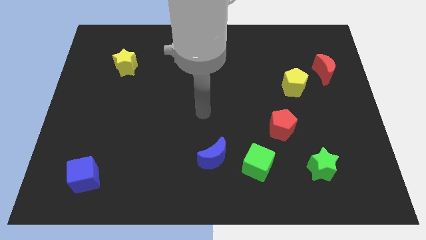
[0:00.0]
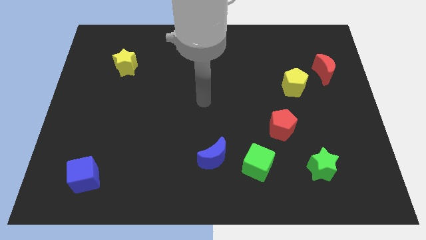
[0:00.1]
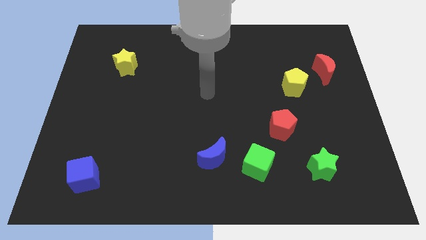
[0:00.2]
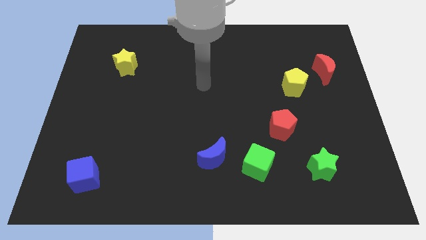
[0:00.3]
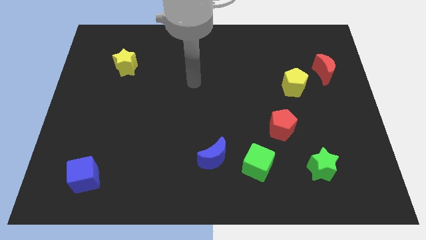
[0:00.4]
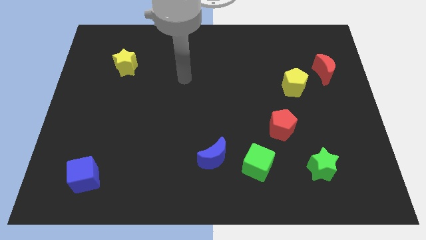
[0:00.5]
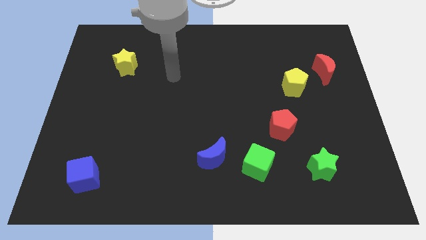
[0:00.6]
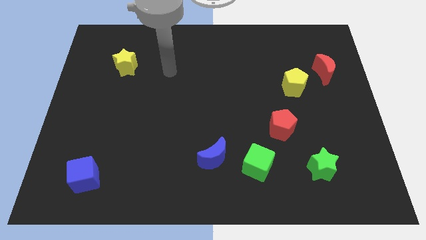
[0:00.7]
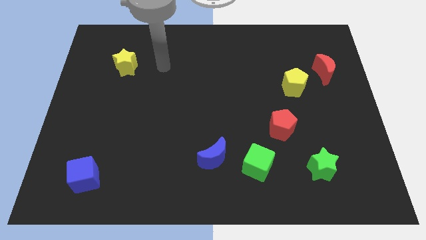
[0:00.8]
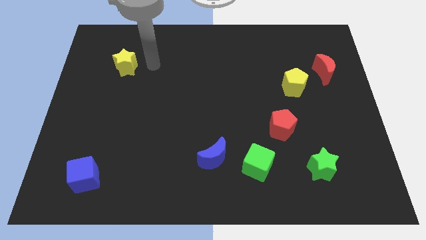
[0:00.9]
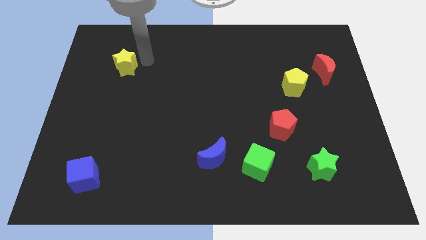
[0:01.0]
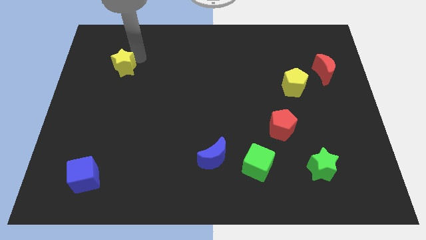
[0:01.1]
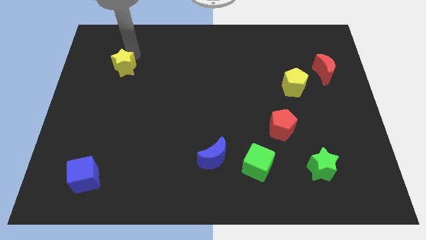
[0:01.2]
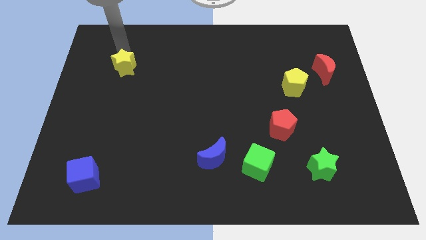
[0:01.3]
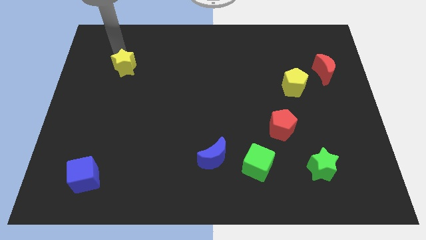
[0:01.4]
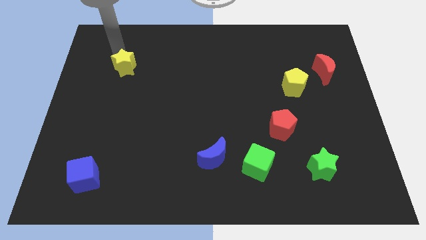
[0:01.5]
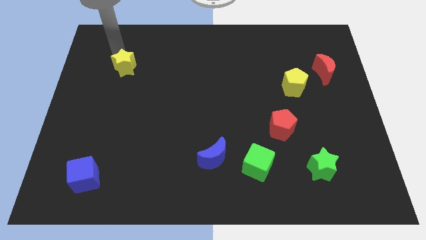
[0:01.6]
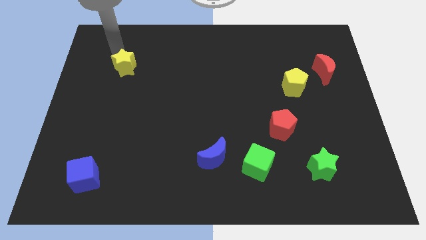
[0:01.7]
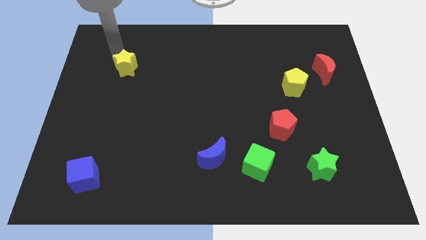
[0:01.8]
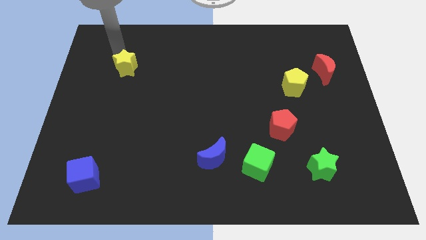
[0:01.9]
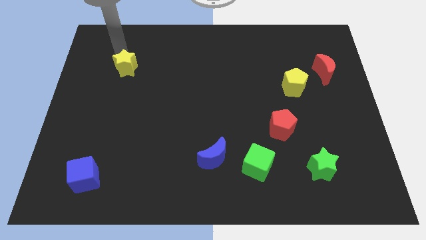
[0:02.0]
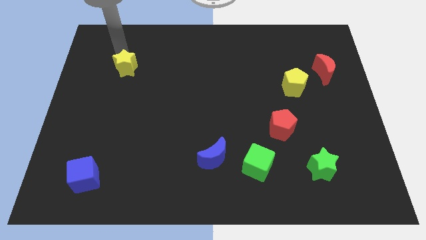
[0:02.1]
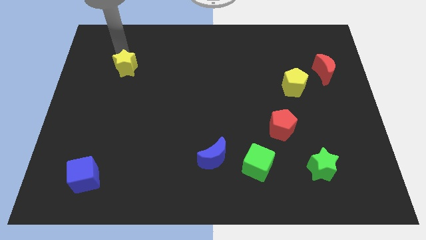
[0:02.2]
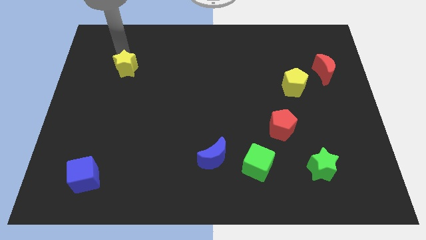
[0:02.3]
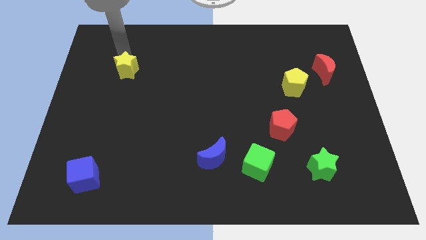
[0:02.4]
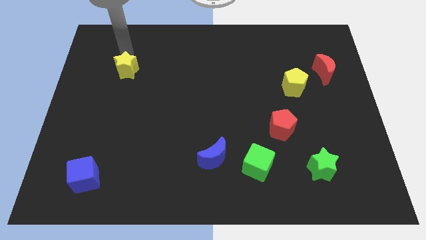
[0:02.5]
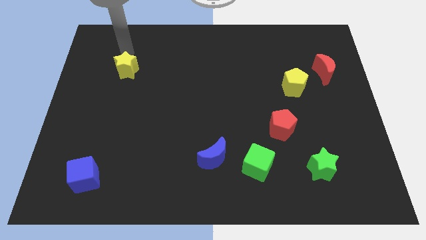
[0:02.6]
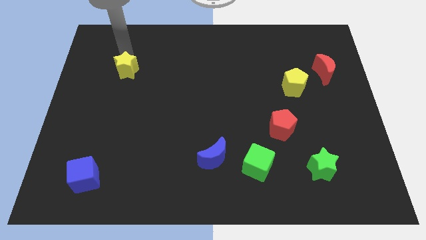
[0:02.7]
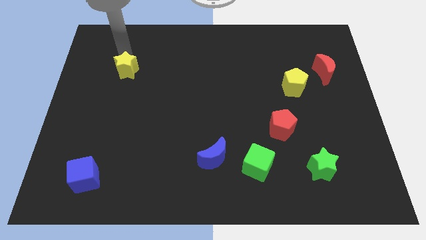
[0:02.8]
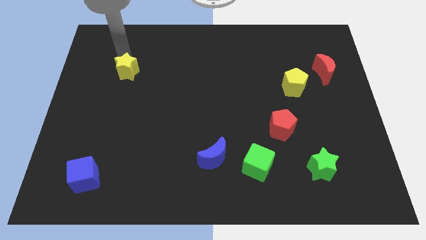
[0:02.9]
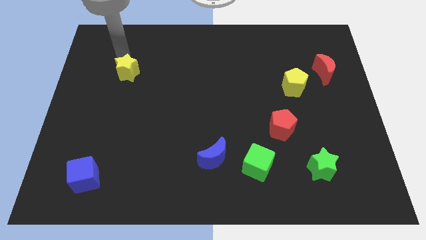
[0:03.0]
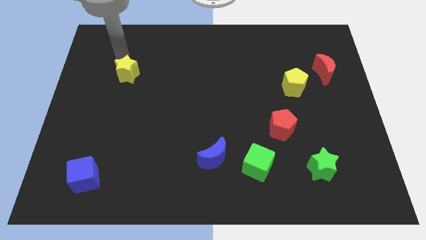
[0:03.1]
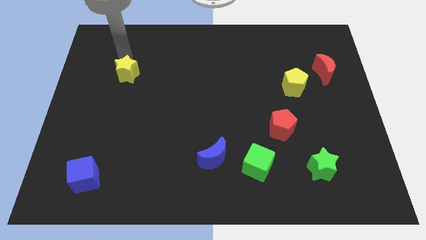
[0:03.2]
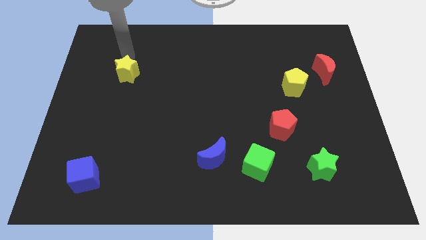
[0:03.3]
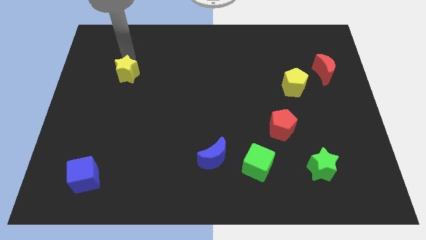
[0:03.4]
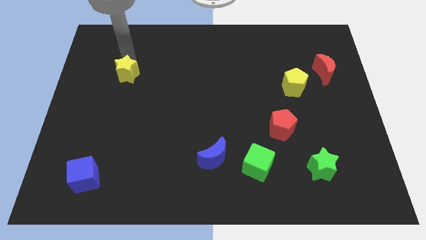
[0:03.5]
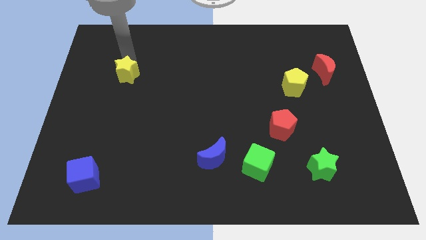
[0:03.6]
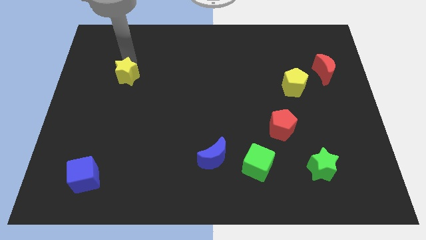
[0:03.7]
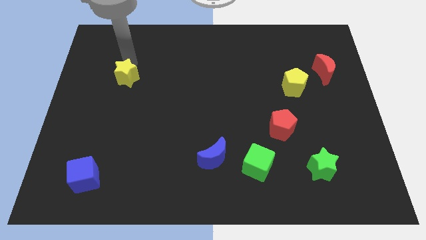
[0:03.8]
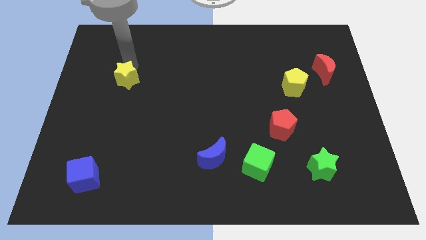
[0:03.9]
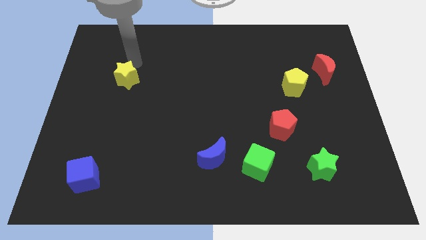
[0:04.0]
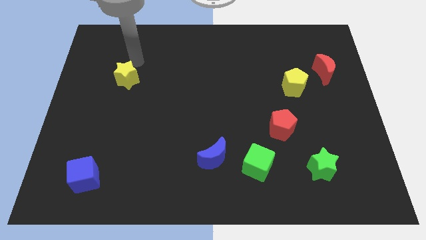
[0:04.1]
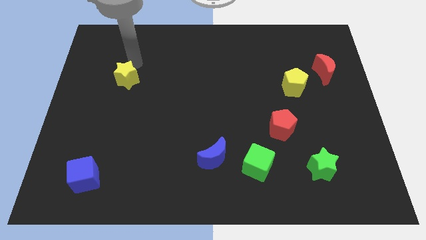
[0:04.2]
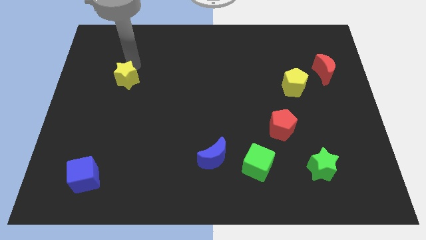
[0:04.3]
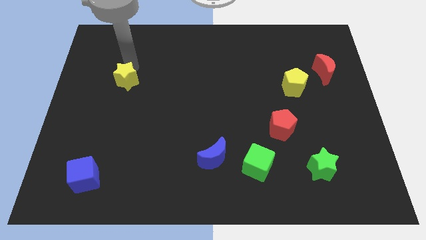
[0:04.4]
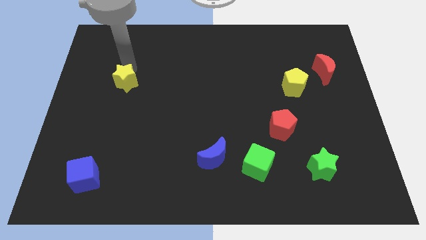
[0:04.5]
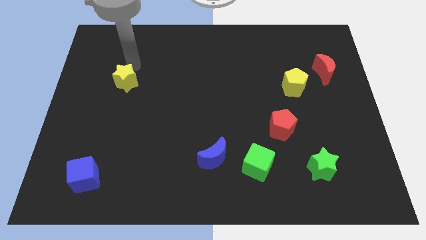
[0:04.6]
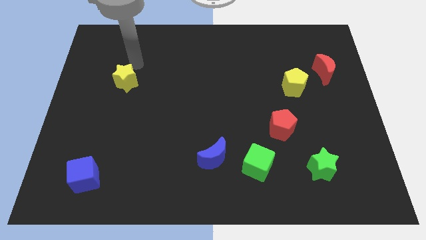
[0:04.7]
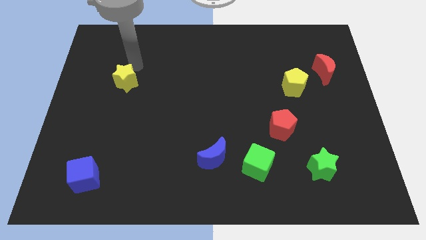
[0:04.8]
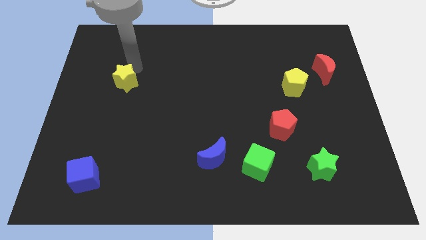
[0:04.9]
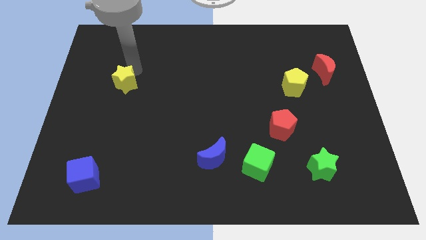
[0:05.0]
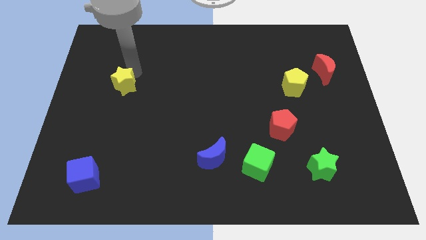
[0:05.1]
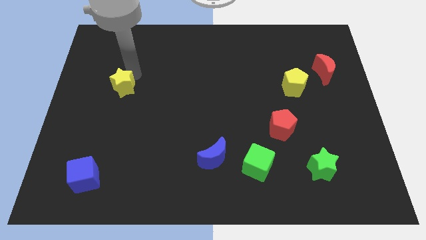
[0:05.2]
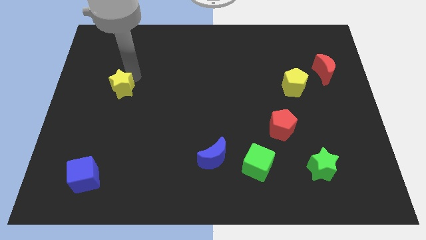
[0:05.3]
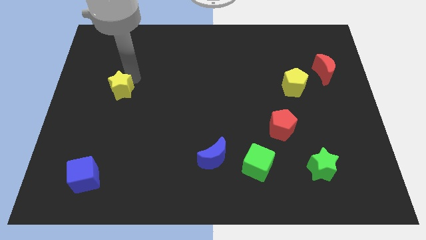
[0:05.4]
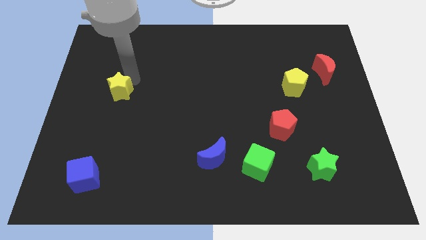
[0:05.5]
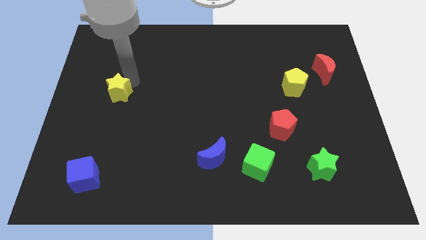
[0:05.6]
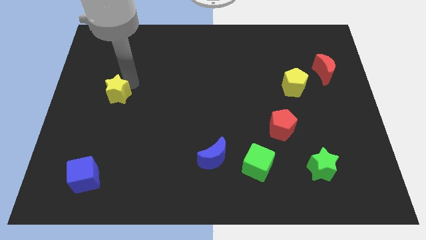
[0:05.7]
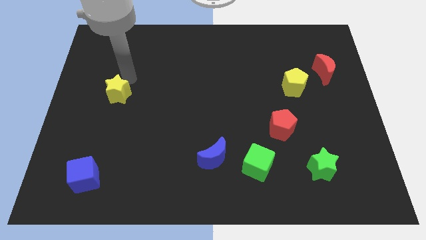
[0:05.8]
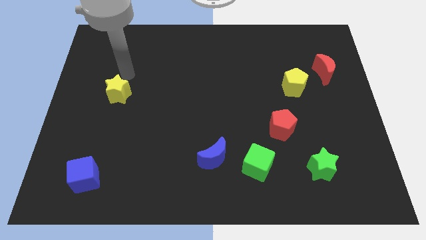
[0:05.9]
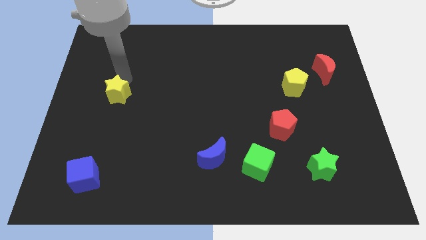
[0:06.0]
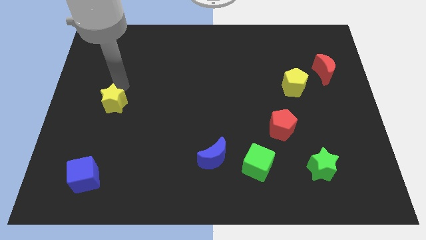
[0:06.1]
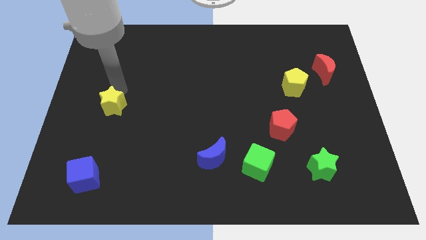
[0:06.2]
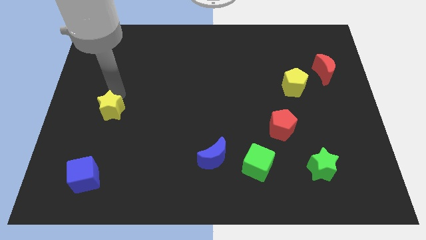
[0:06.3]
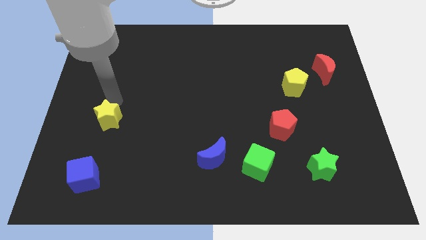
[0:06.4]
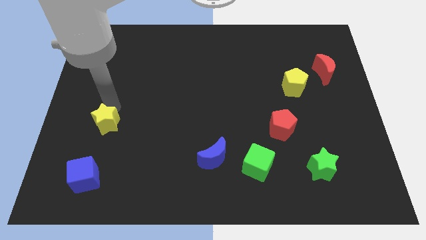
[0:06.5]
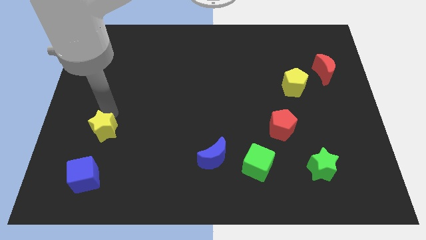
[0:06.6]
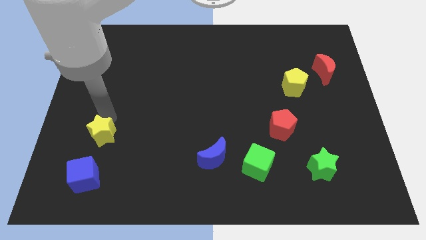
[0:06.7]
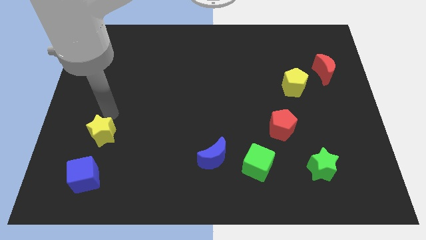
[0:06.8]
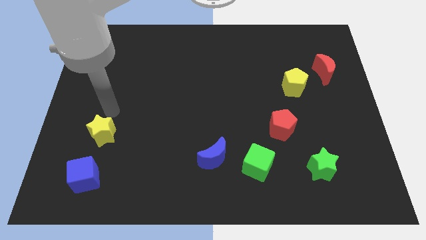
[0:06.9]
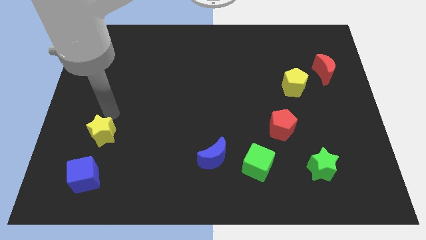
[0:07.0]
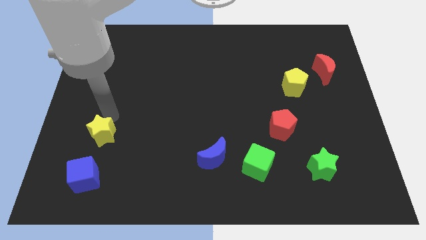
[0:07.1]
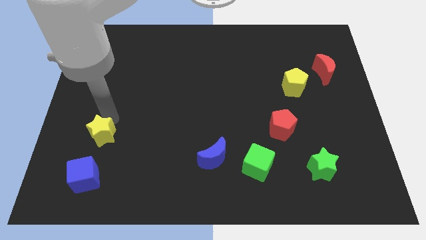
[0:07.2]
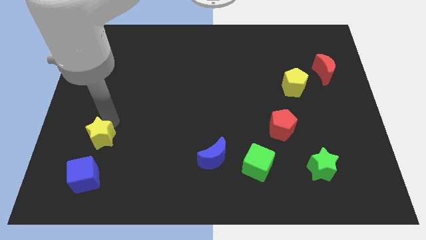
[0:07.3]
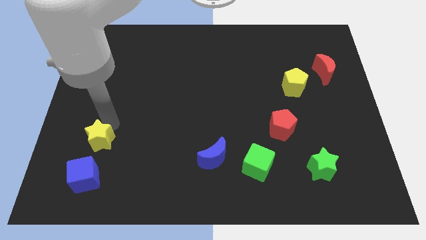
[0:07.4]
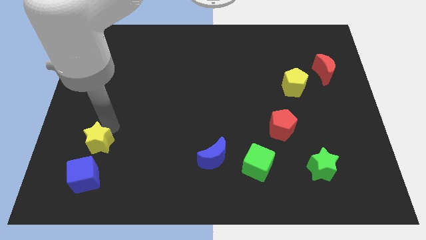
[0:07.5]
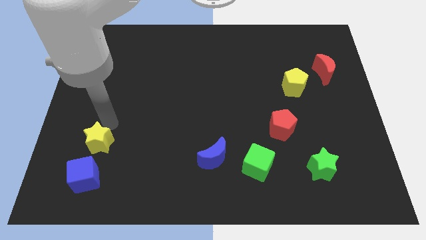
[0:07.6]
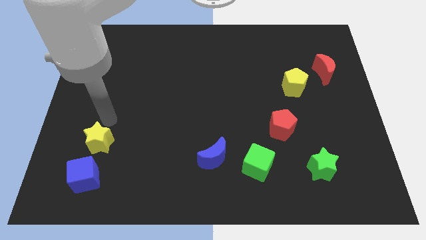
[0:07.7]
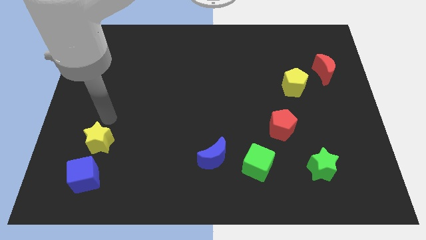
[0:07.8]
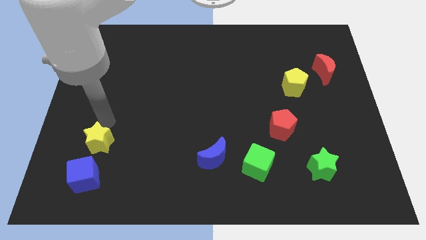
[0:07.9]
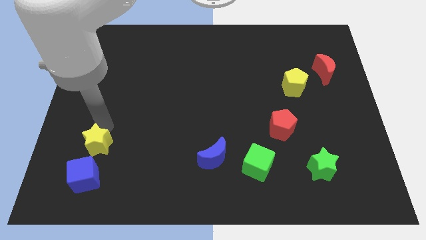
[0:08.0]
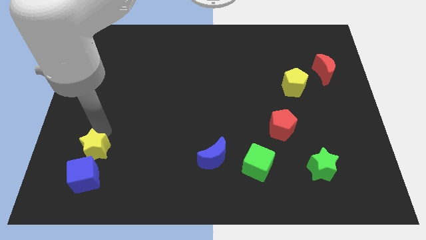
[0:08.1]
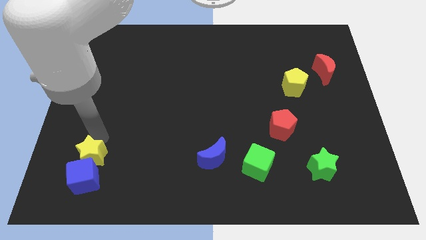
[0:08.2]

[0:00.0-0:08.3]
move the yellow star close to the blue cube
